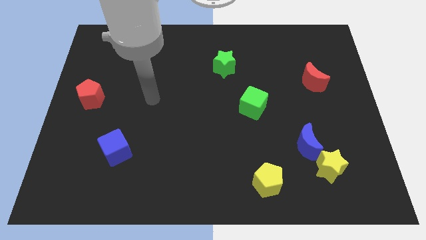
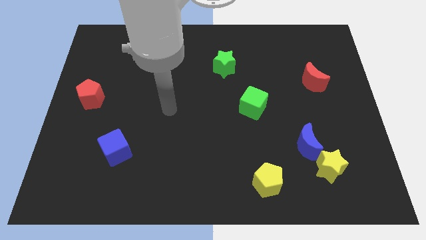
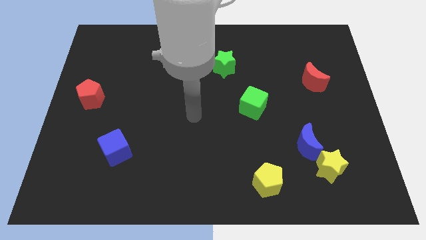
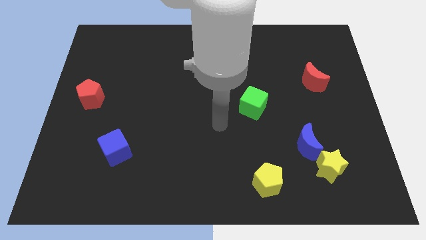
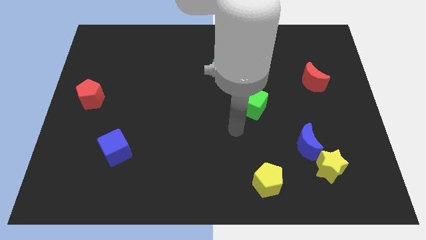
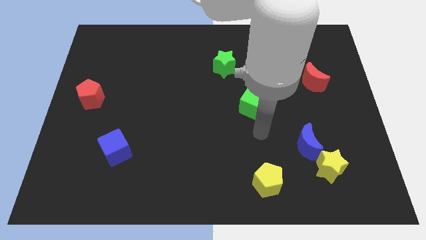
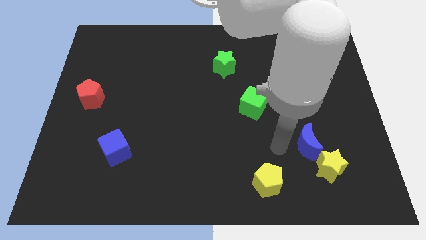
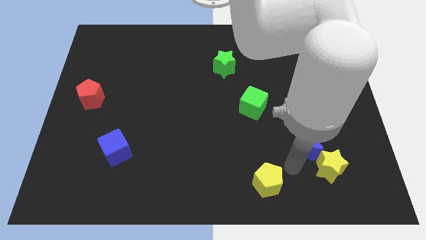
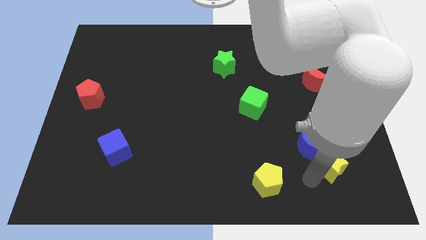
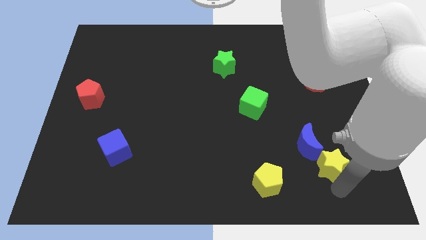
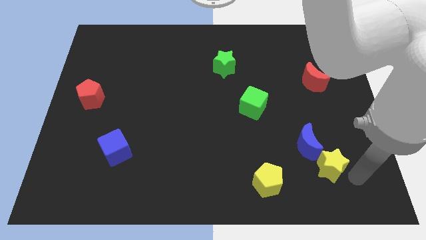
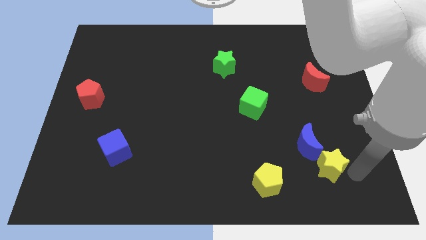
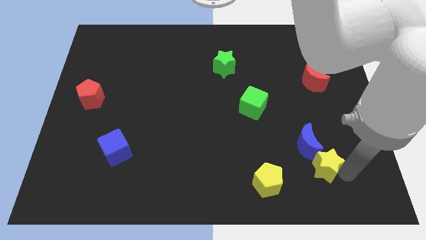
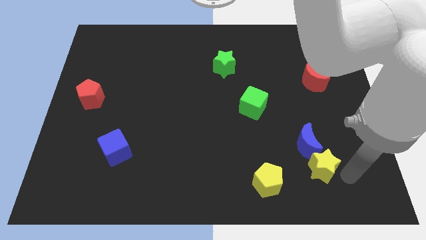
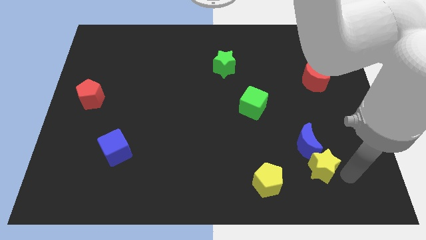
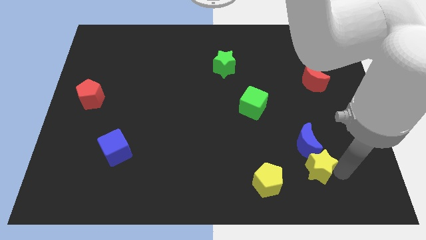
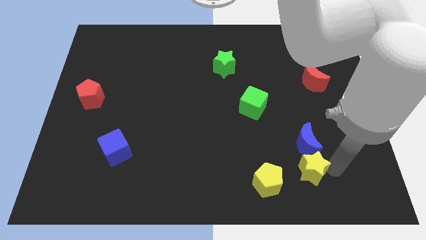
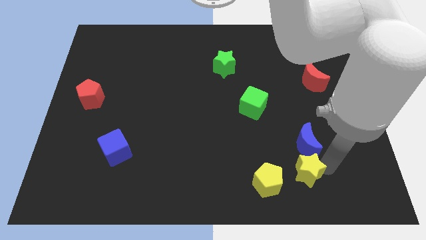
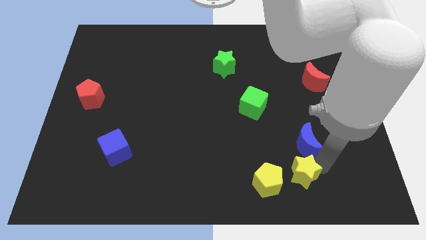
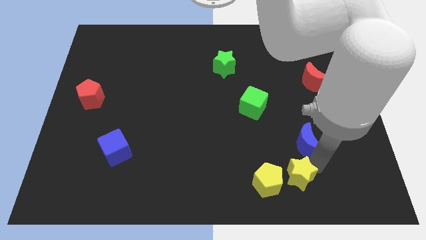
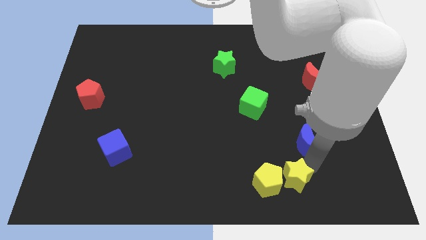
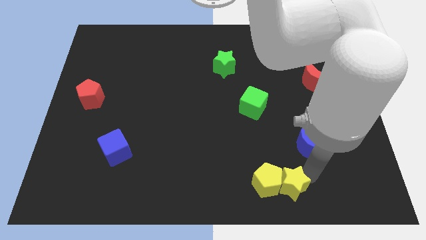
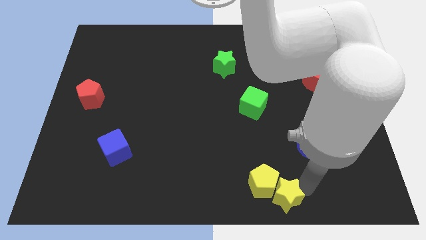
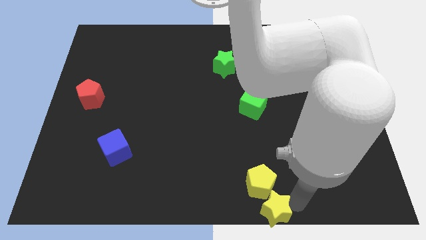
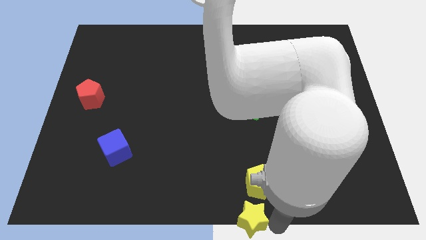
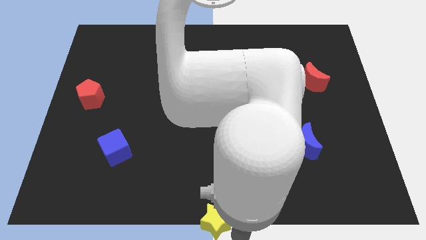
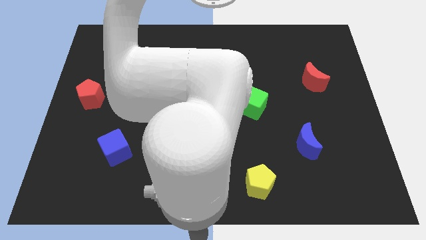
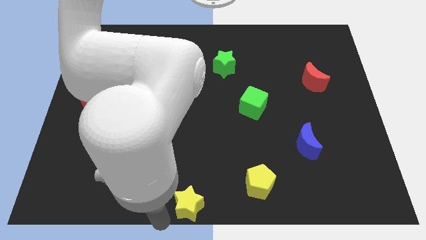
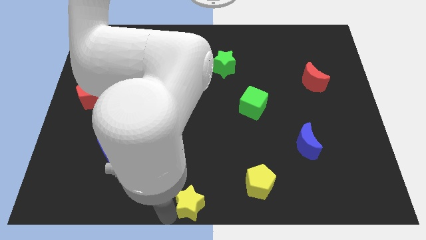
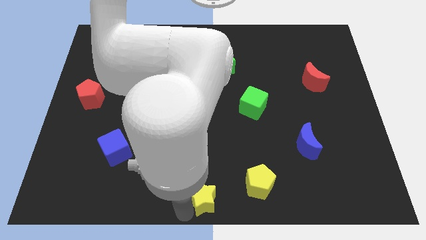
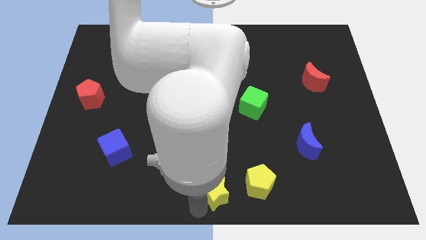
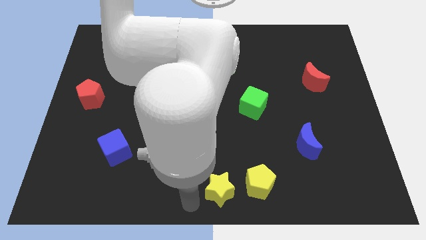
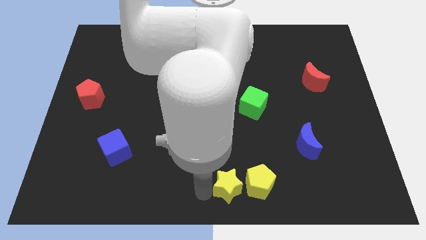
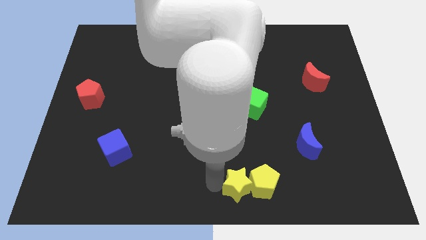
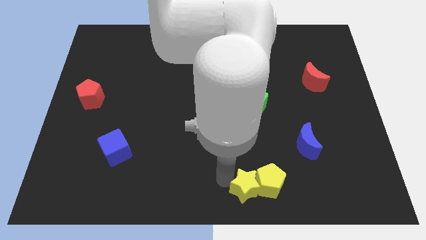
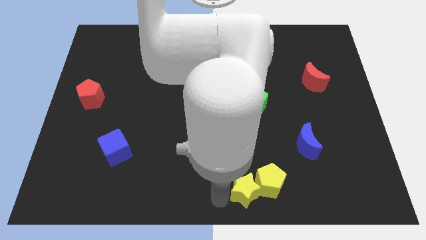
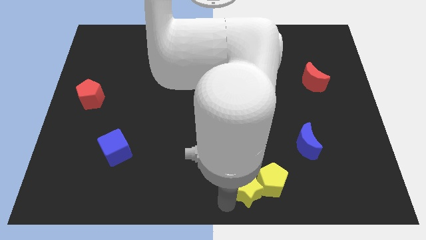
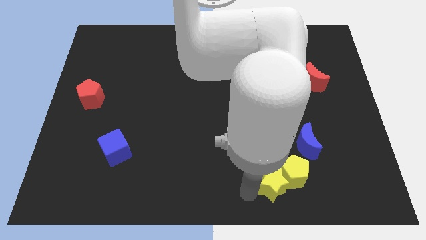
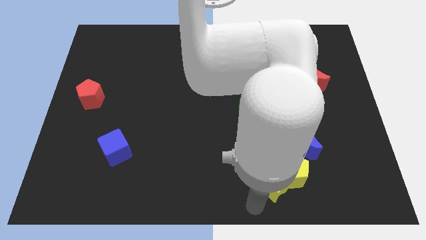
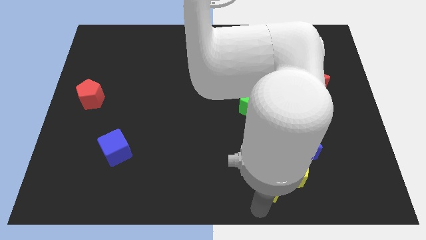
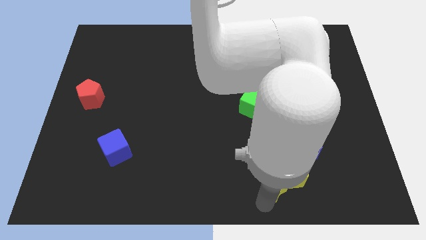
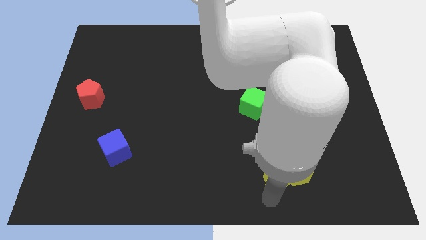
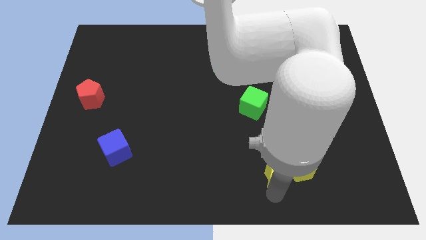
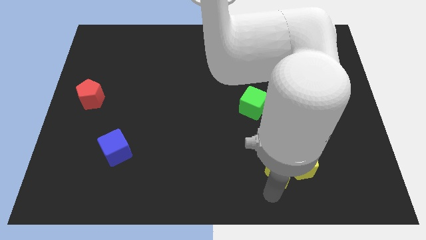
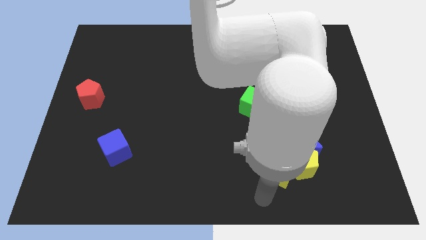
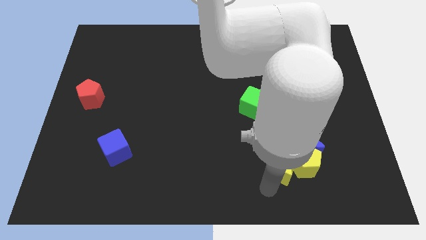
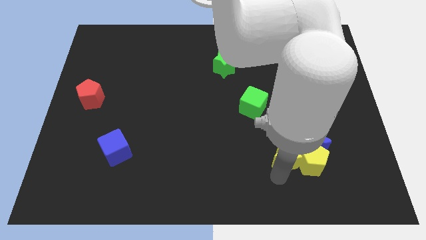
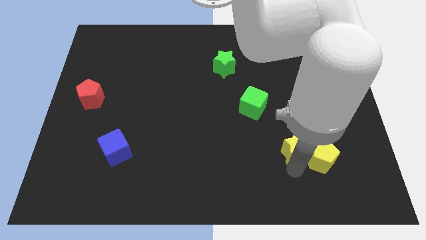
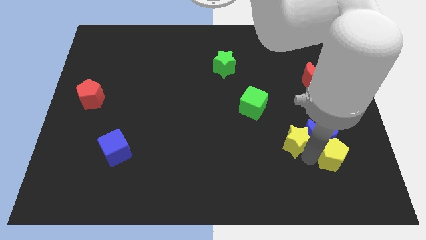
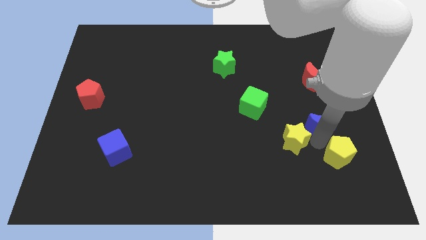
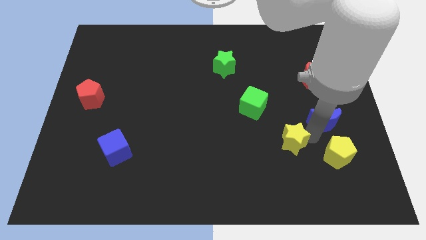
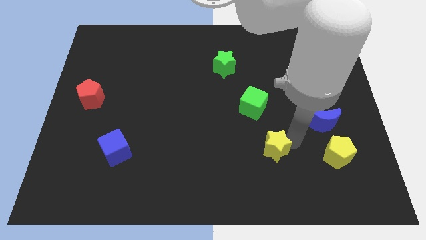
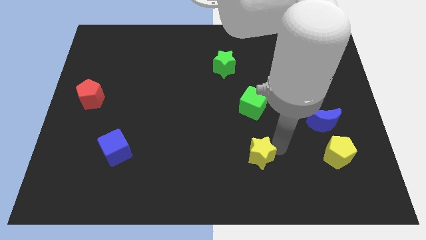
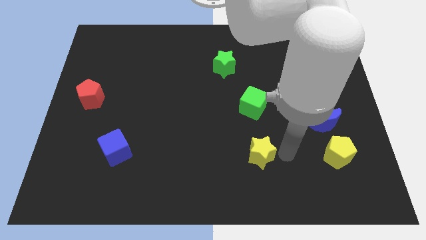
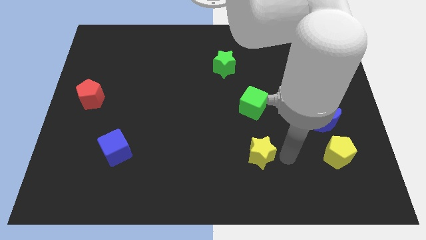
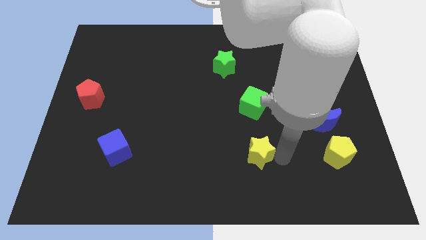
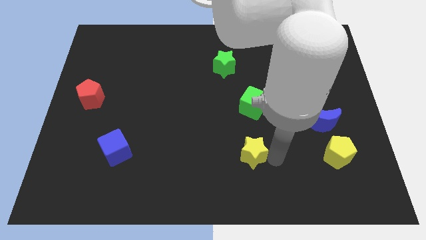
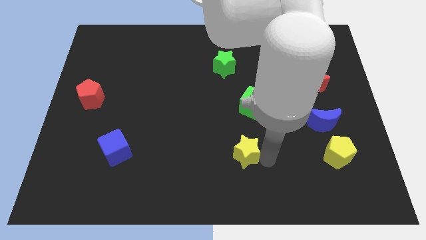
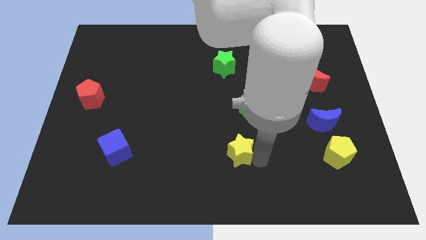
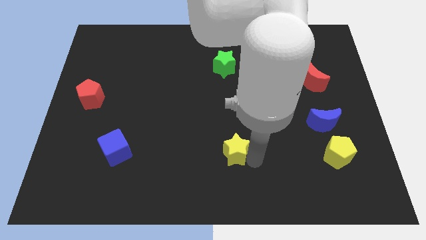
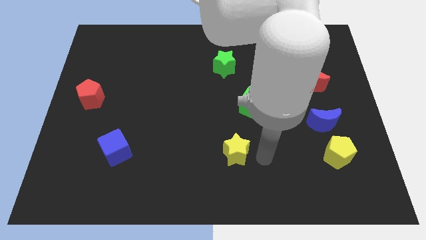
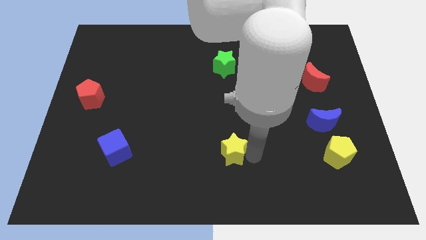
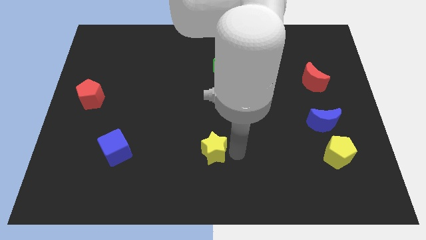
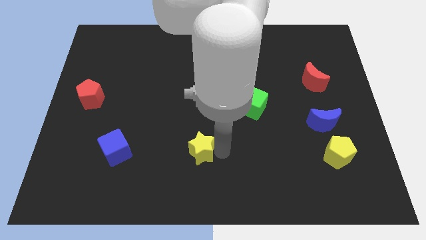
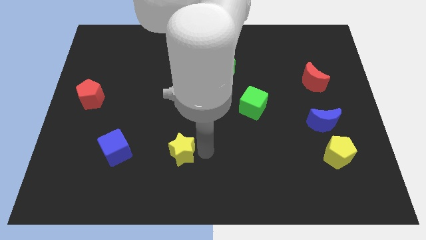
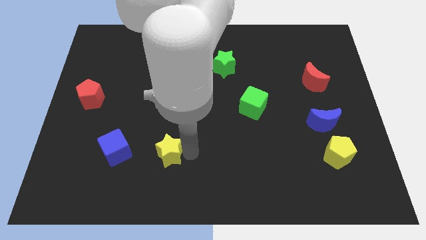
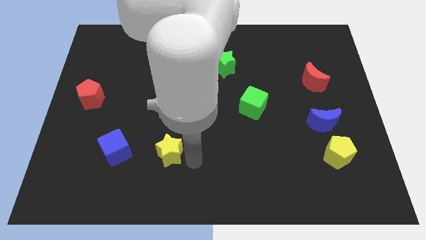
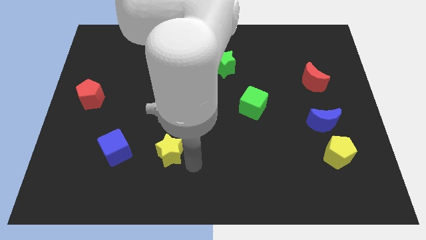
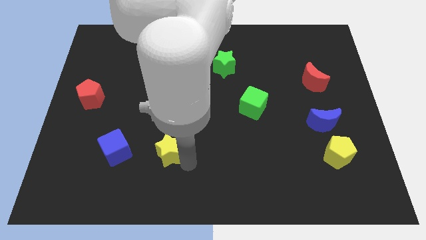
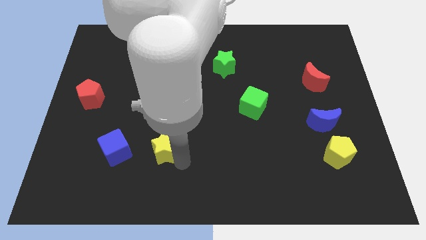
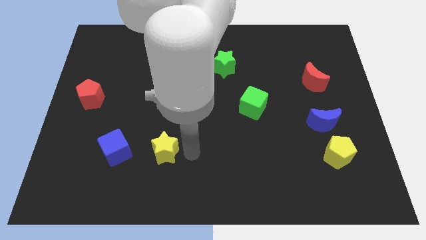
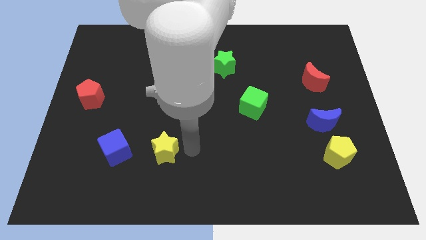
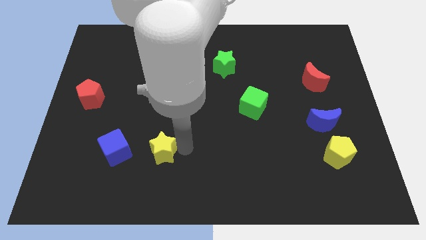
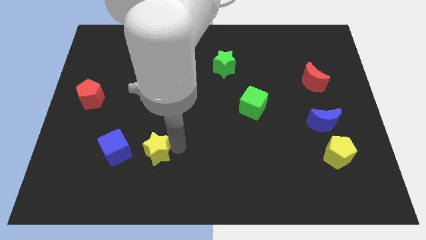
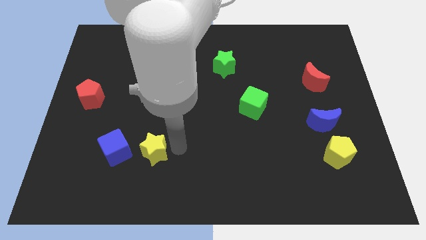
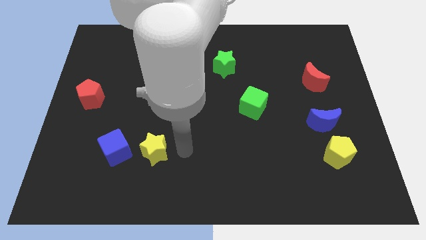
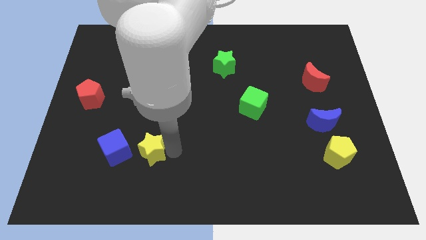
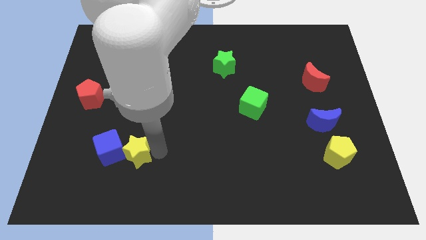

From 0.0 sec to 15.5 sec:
slide the yellow star to the blue cube
